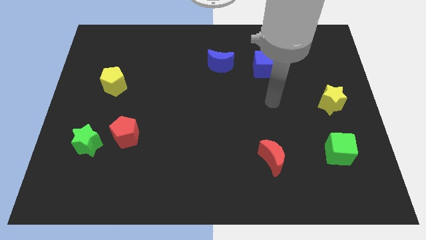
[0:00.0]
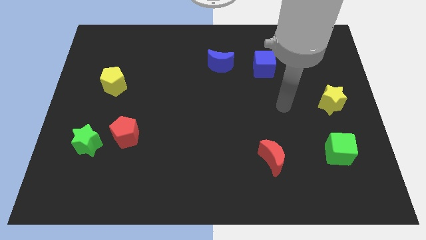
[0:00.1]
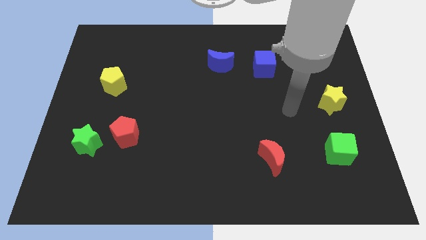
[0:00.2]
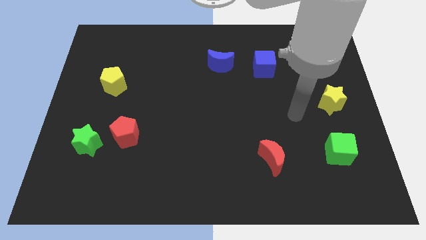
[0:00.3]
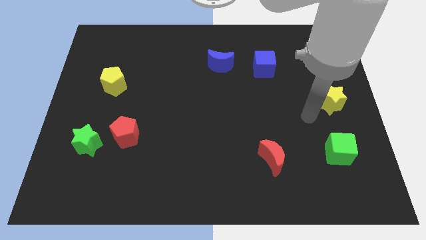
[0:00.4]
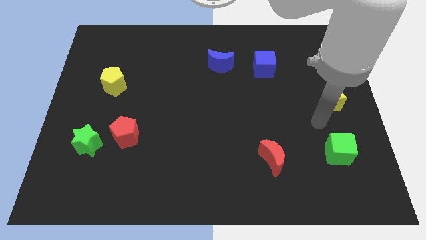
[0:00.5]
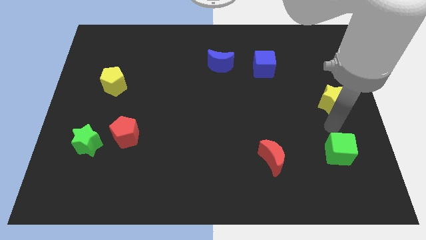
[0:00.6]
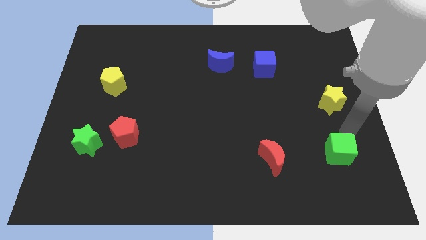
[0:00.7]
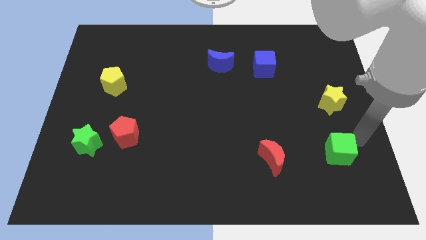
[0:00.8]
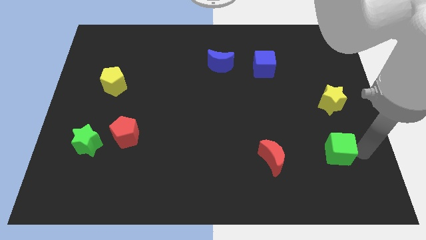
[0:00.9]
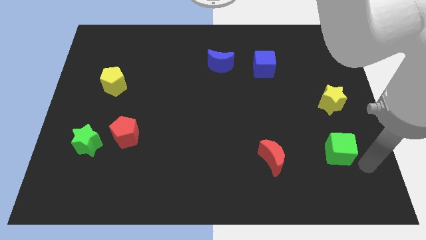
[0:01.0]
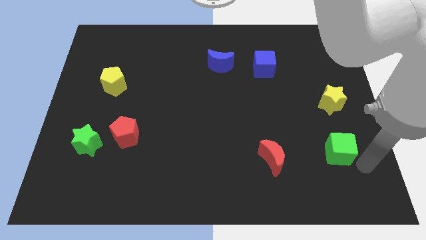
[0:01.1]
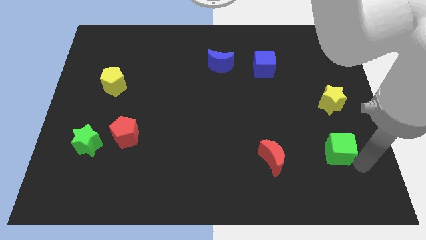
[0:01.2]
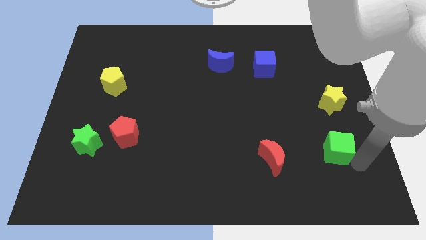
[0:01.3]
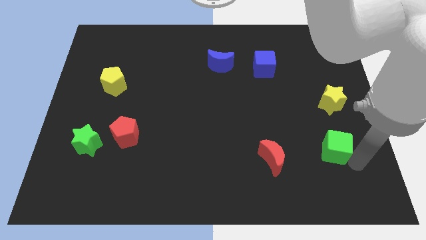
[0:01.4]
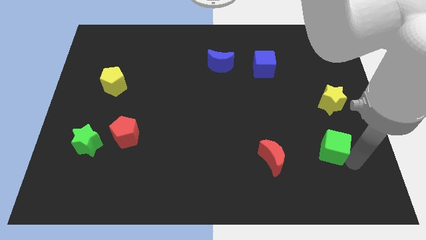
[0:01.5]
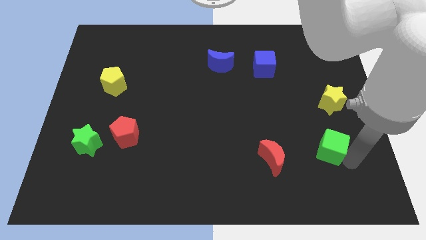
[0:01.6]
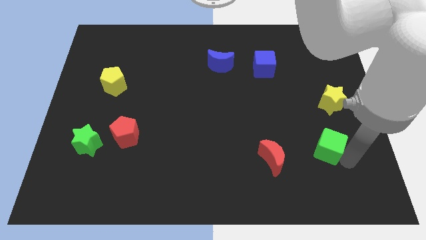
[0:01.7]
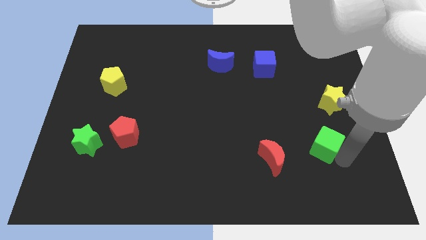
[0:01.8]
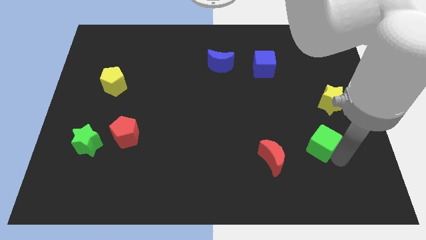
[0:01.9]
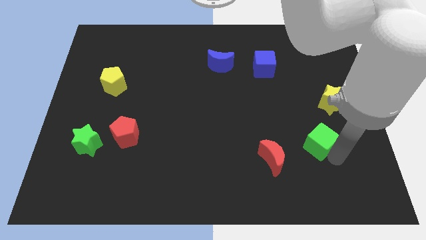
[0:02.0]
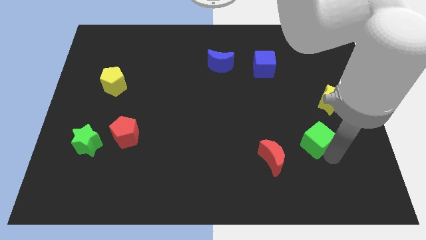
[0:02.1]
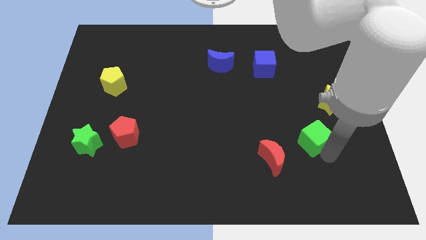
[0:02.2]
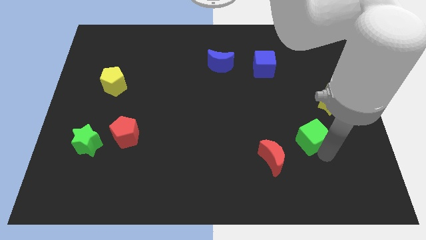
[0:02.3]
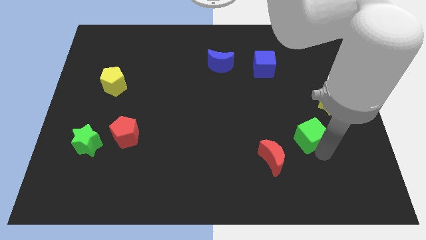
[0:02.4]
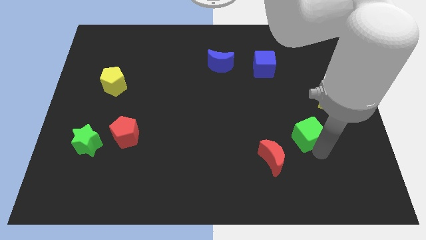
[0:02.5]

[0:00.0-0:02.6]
slightly move the green cube diagonally upwards and left

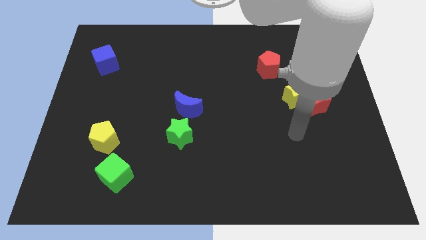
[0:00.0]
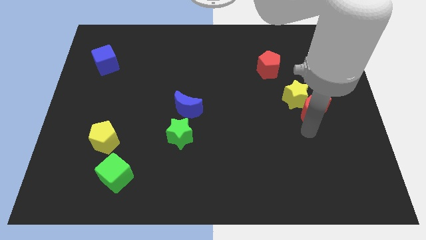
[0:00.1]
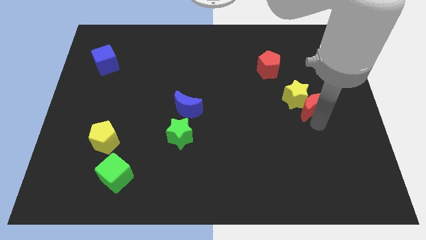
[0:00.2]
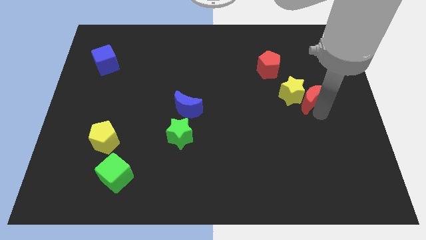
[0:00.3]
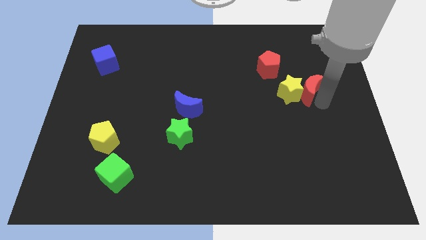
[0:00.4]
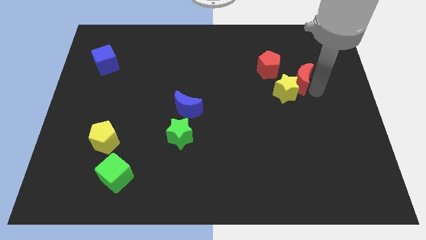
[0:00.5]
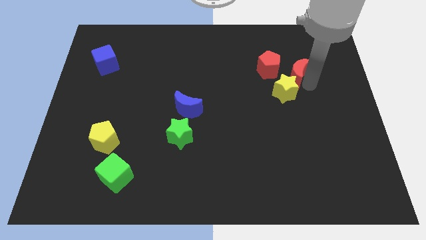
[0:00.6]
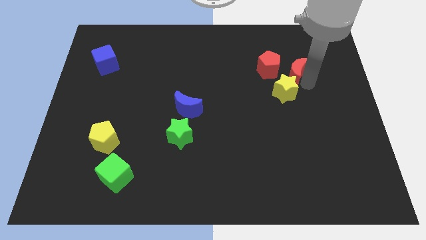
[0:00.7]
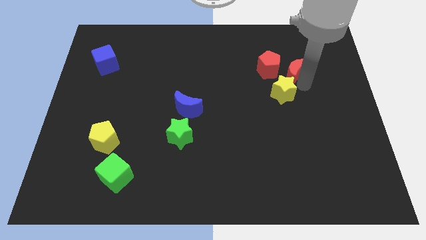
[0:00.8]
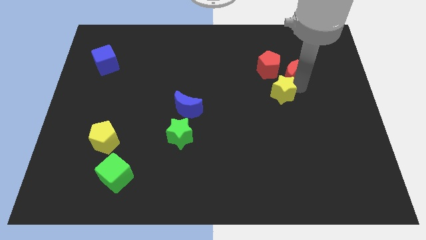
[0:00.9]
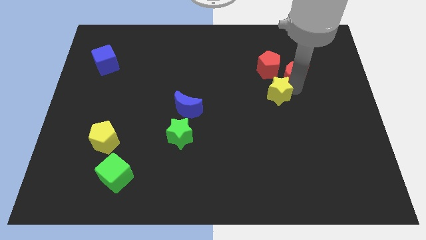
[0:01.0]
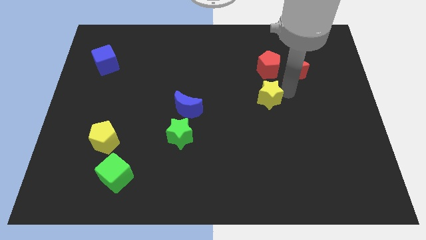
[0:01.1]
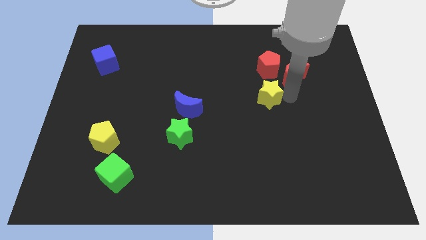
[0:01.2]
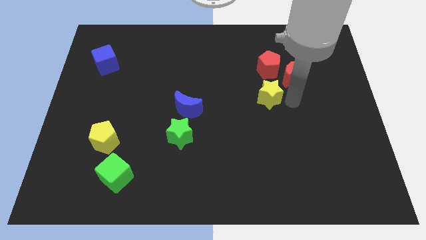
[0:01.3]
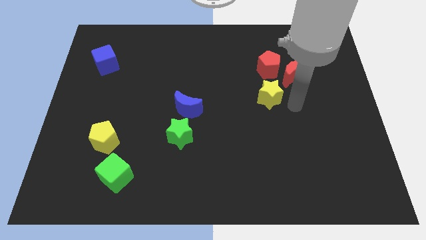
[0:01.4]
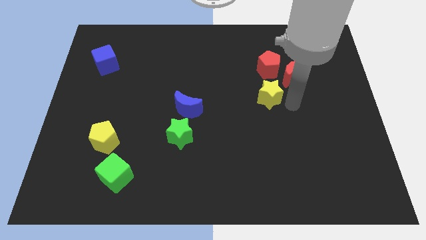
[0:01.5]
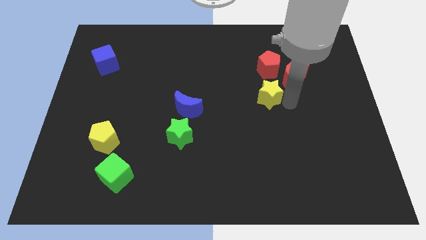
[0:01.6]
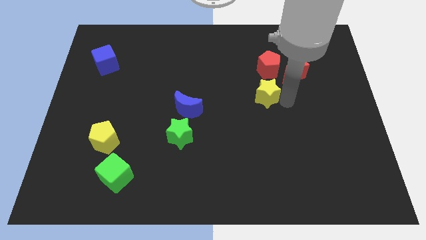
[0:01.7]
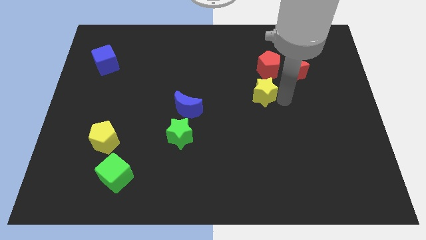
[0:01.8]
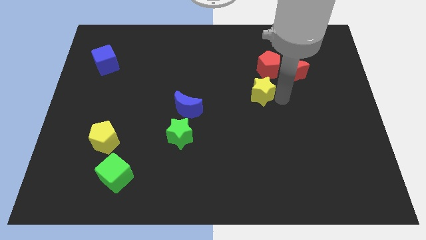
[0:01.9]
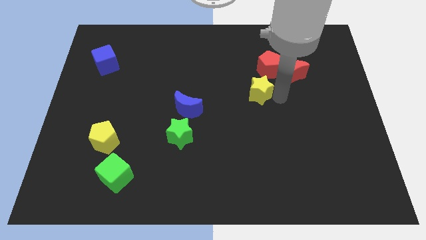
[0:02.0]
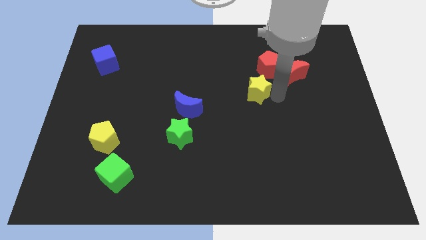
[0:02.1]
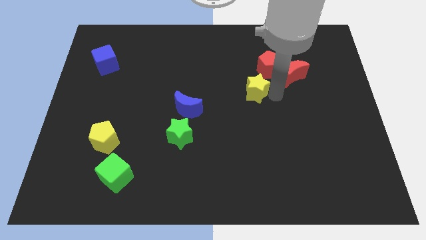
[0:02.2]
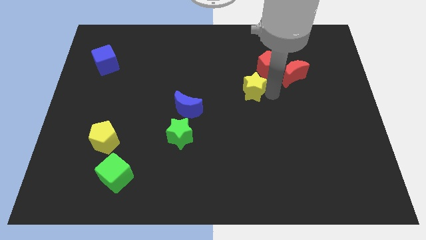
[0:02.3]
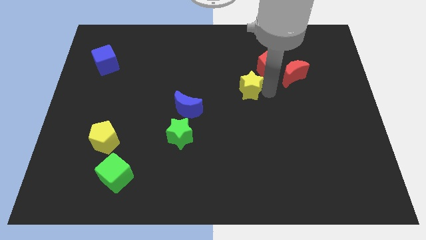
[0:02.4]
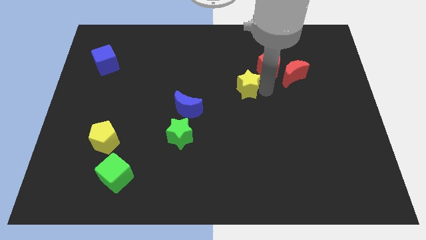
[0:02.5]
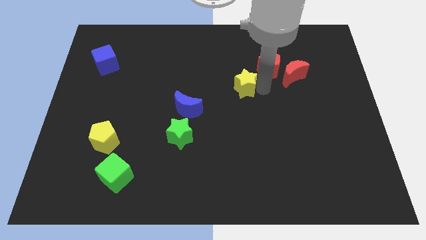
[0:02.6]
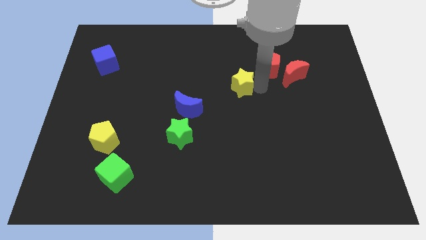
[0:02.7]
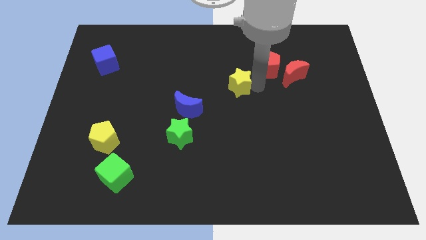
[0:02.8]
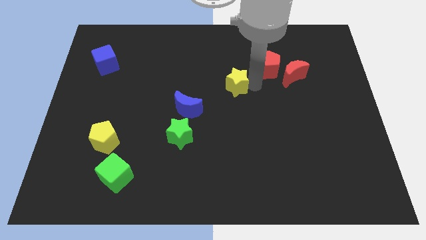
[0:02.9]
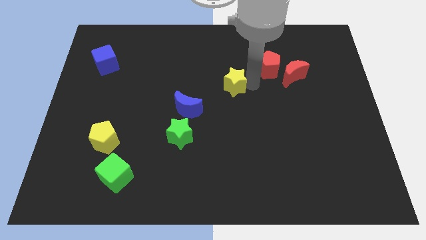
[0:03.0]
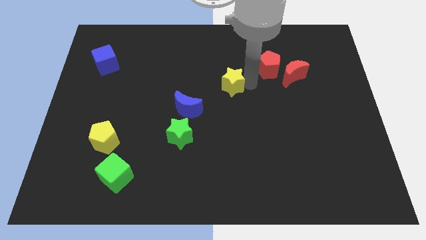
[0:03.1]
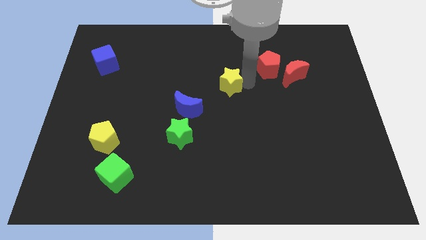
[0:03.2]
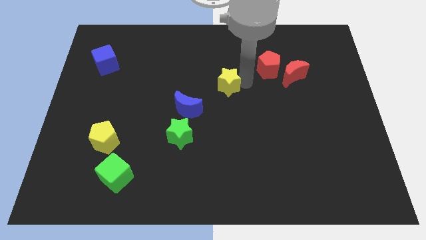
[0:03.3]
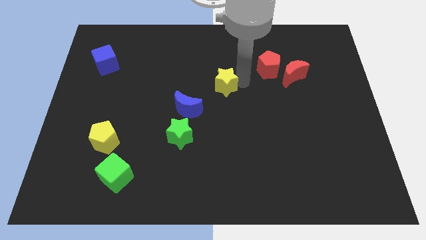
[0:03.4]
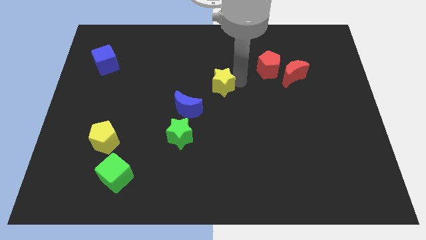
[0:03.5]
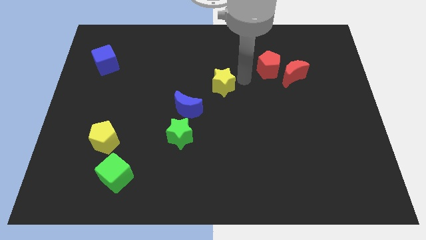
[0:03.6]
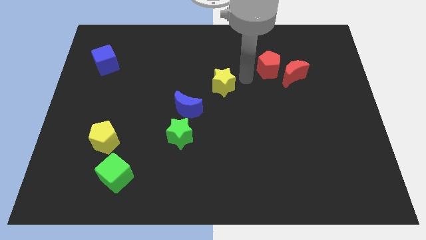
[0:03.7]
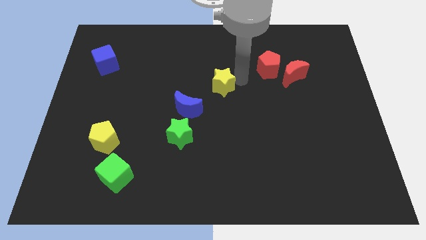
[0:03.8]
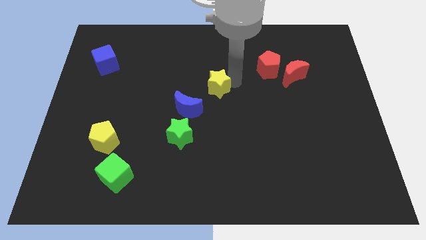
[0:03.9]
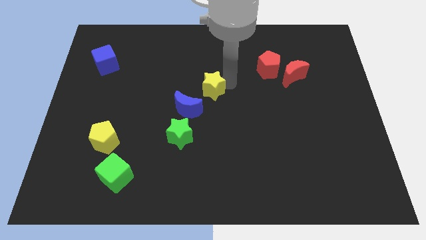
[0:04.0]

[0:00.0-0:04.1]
push the yellow star to the left

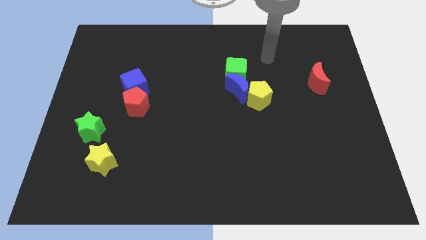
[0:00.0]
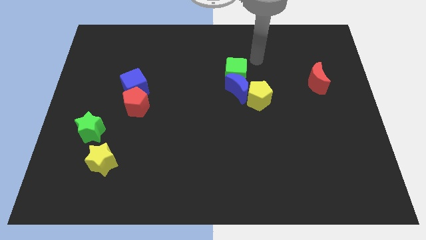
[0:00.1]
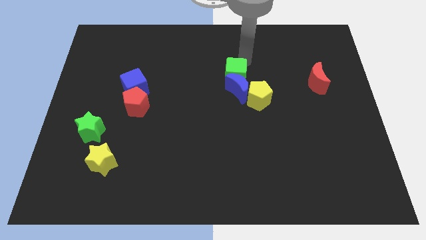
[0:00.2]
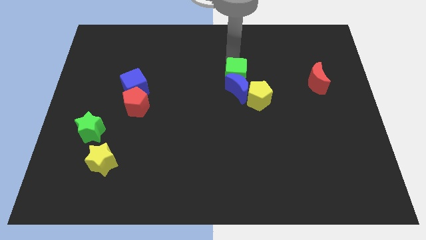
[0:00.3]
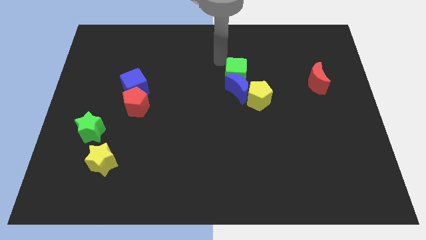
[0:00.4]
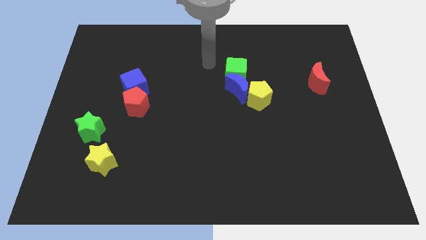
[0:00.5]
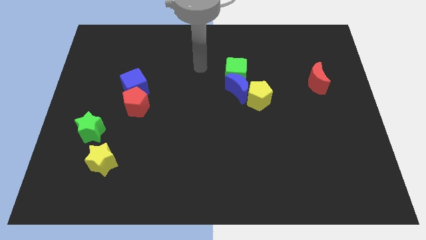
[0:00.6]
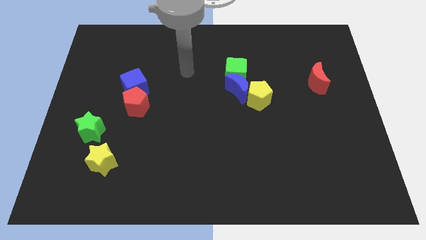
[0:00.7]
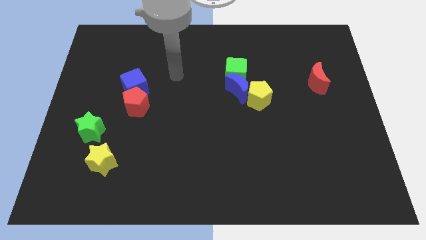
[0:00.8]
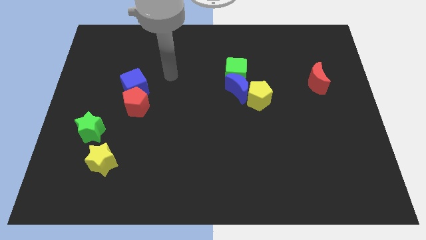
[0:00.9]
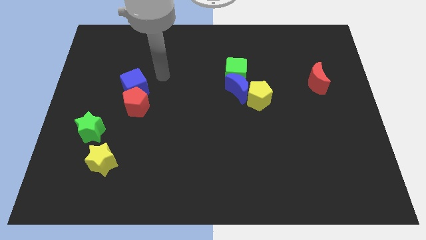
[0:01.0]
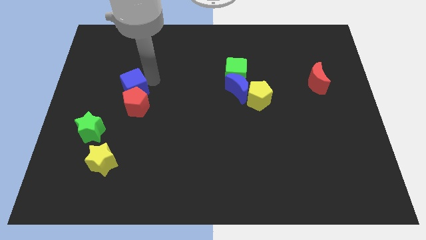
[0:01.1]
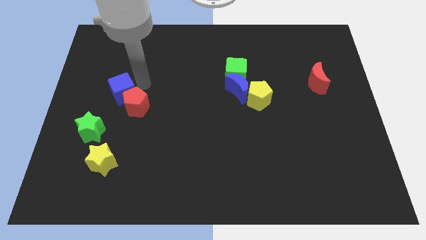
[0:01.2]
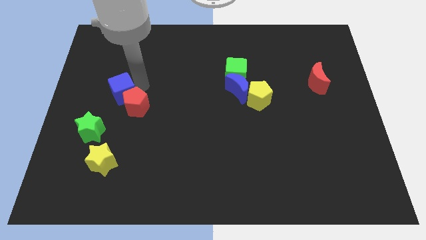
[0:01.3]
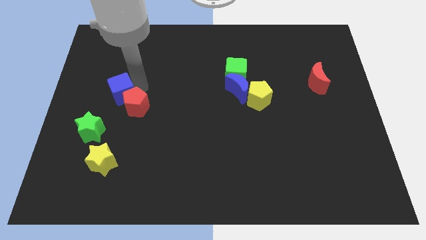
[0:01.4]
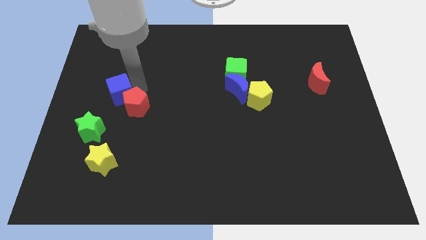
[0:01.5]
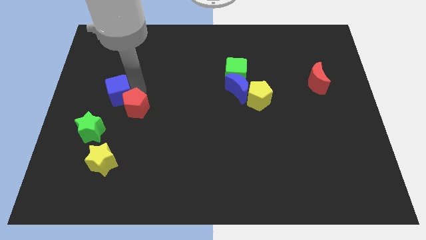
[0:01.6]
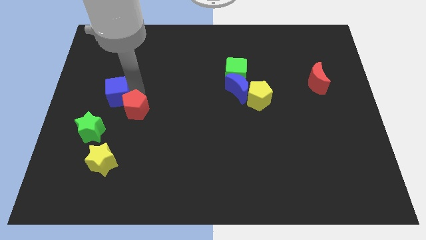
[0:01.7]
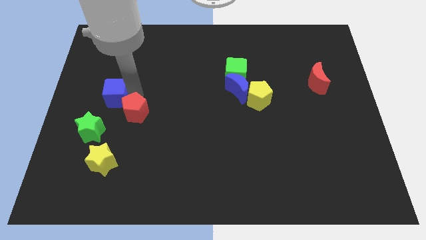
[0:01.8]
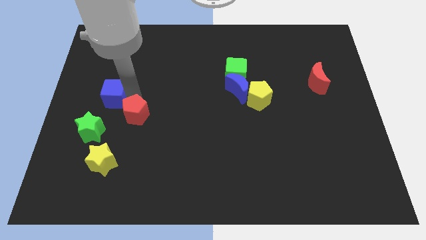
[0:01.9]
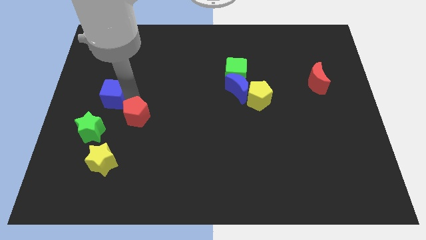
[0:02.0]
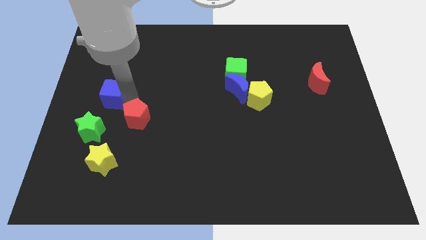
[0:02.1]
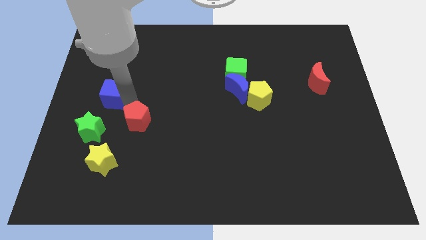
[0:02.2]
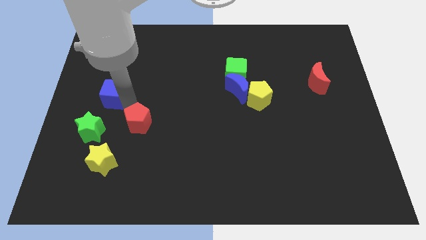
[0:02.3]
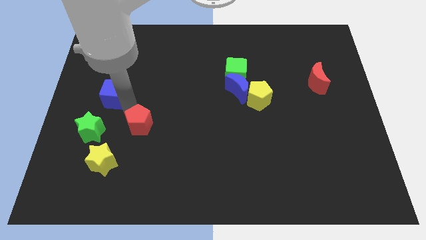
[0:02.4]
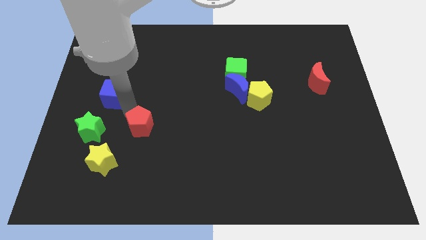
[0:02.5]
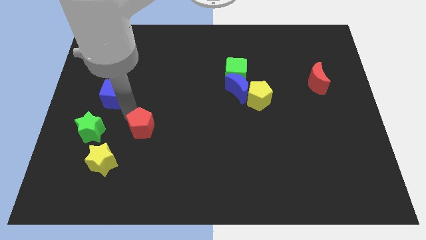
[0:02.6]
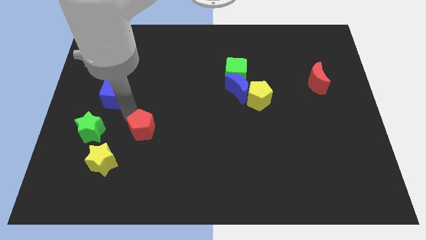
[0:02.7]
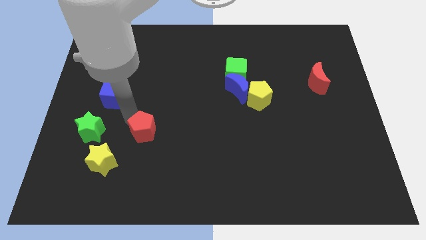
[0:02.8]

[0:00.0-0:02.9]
slightly move the red pentagon downwards
